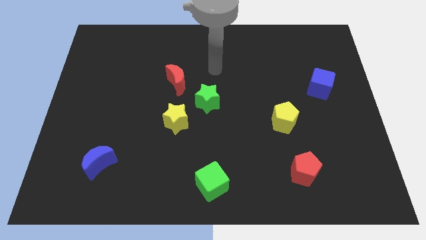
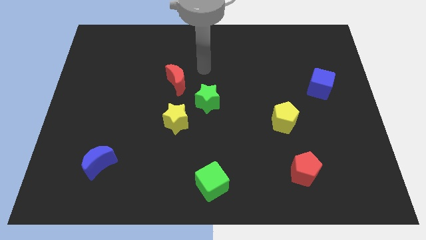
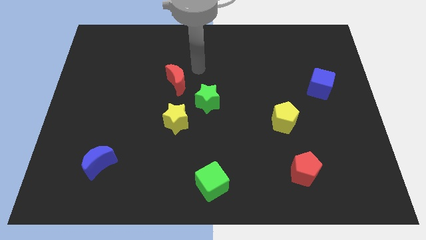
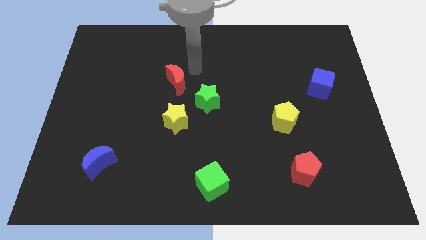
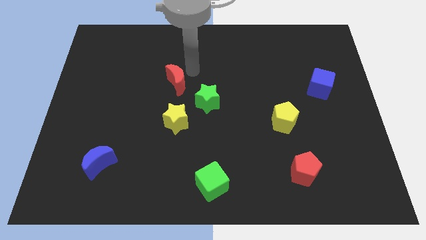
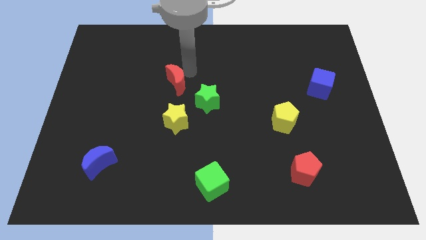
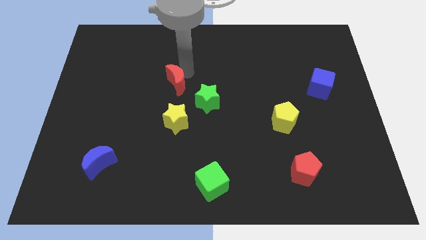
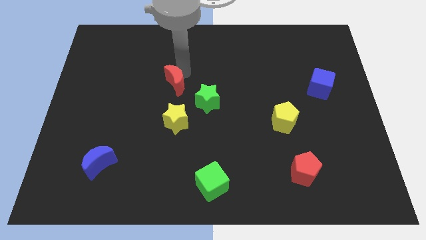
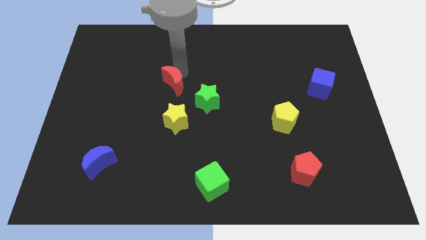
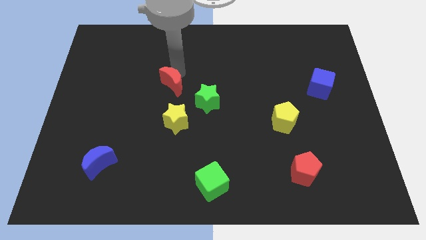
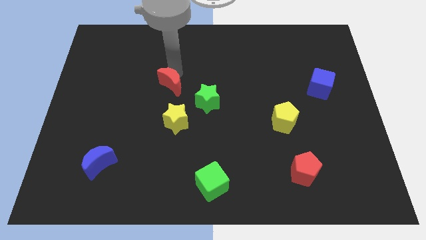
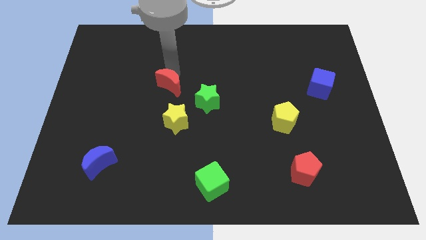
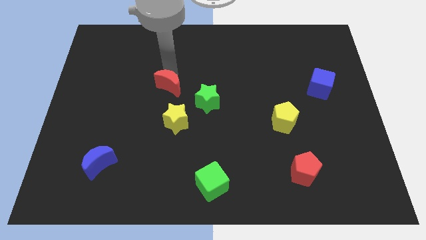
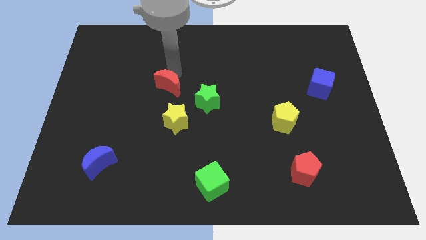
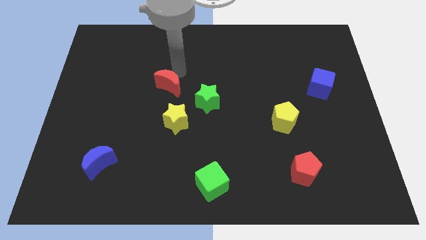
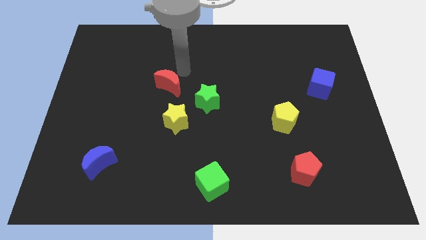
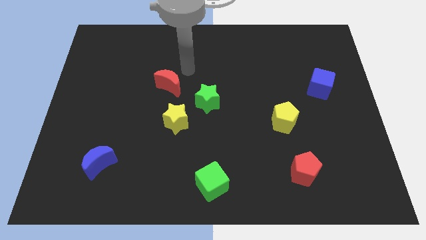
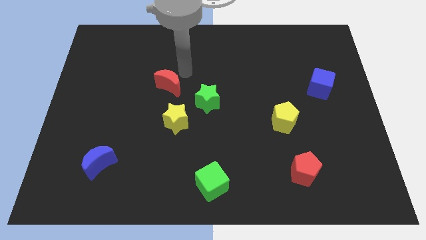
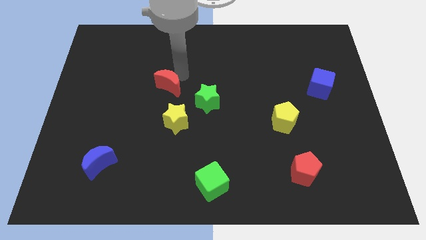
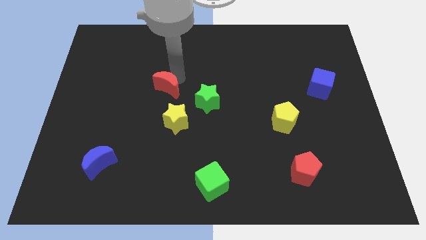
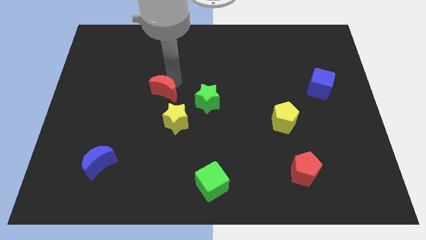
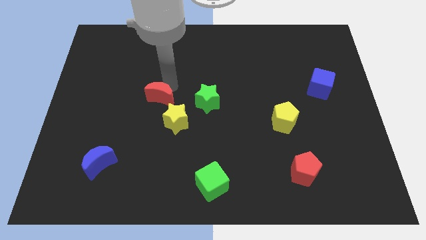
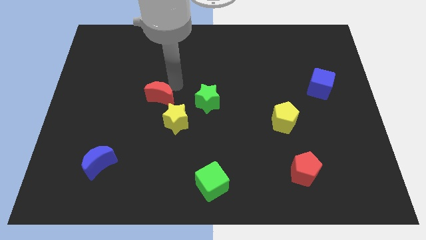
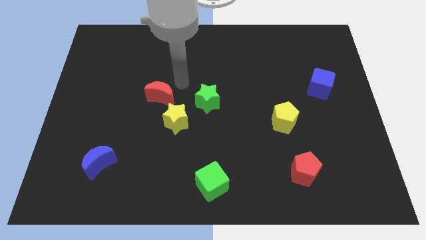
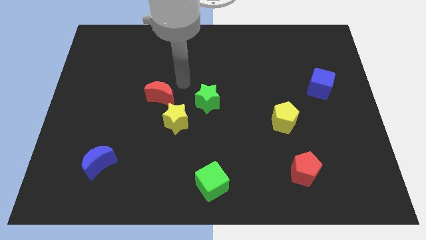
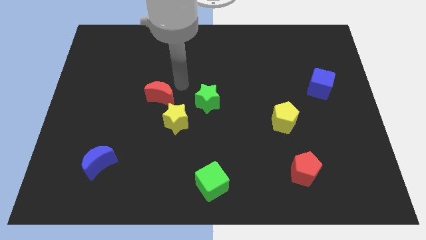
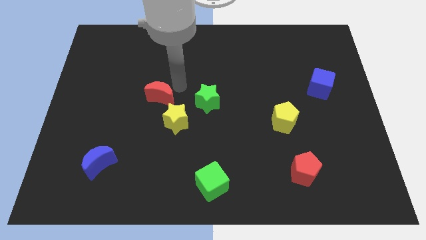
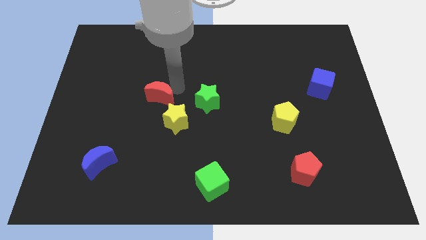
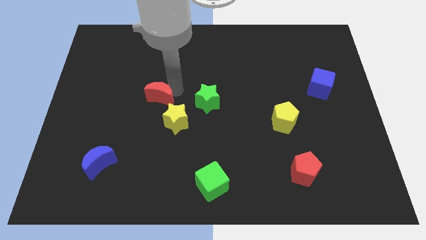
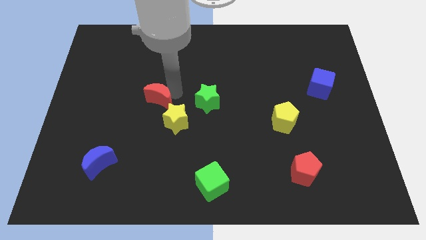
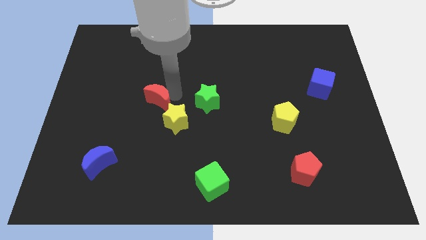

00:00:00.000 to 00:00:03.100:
slightly move the red moon down and left diagonally

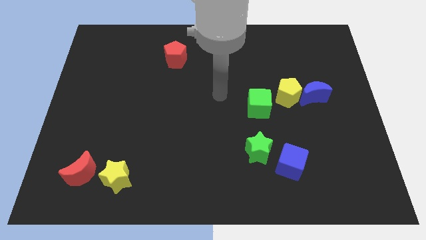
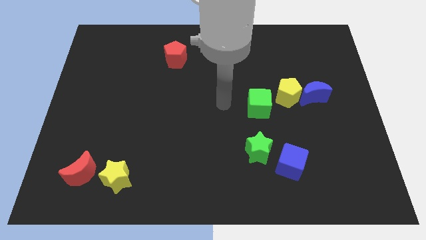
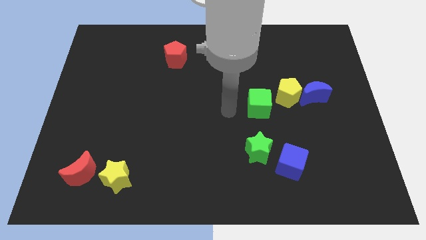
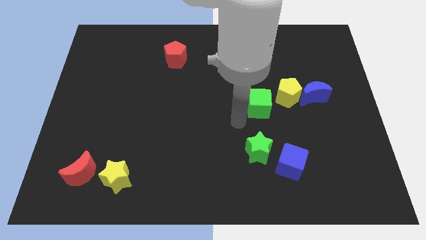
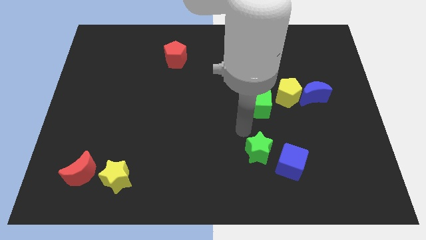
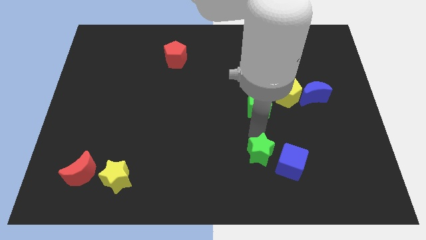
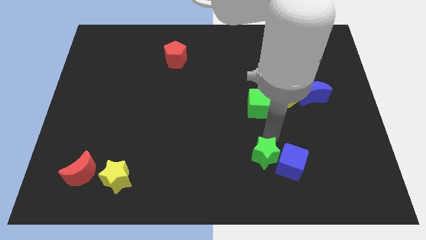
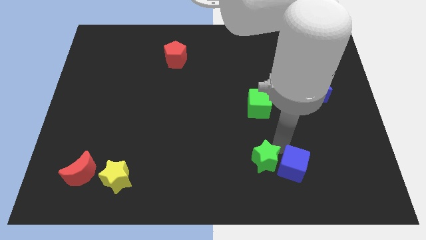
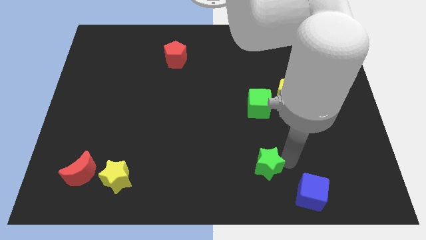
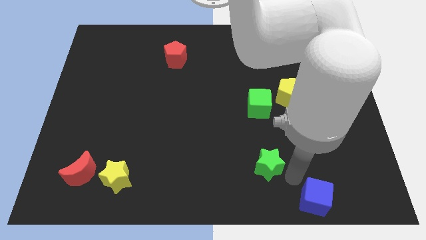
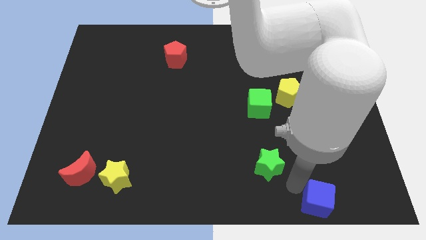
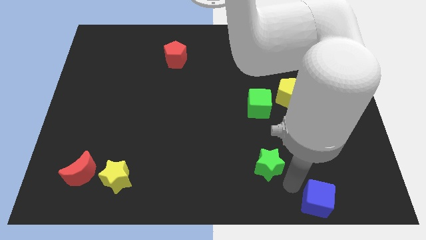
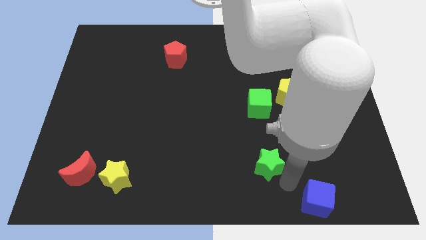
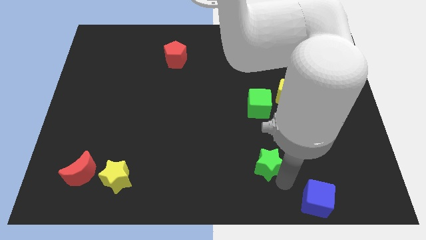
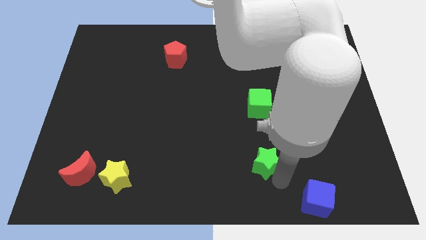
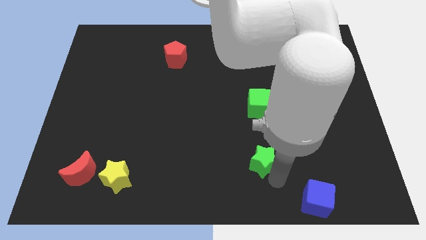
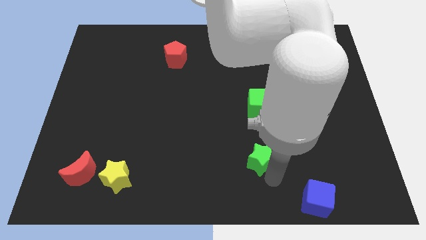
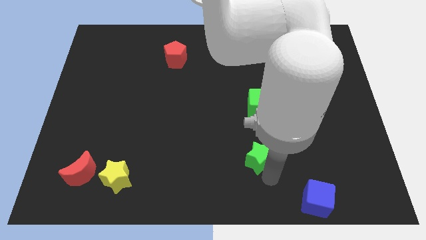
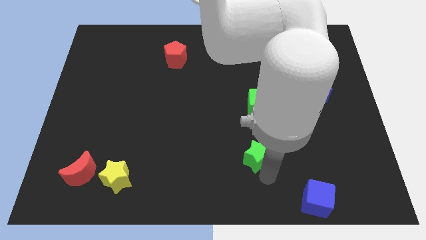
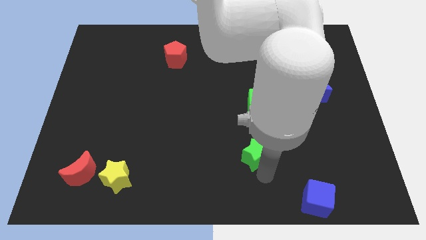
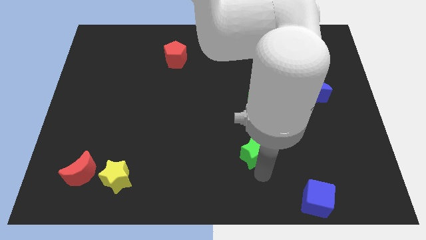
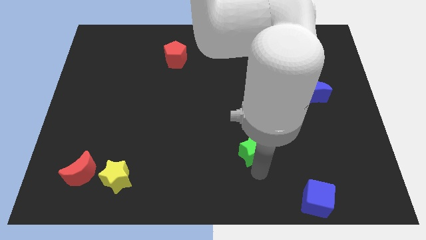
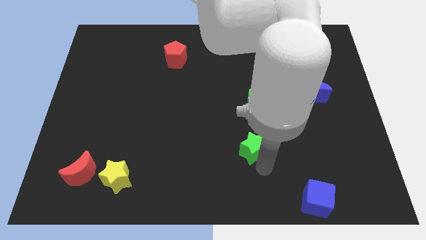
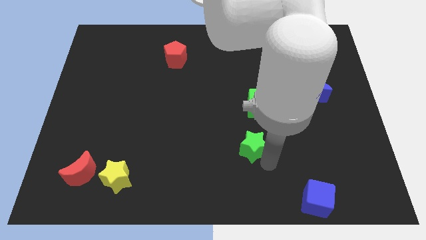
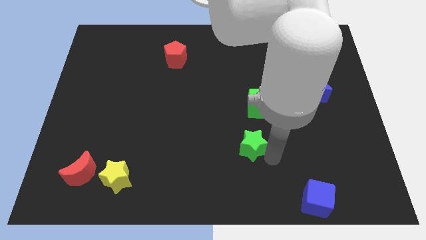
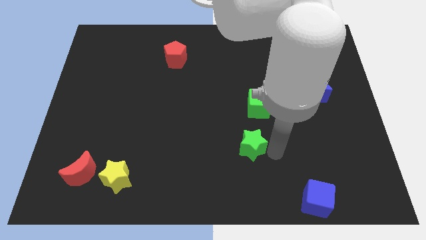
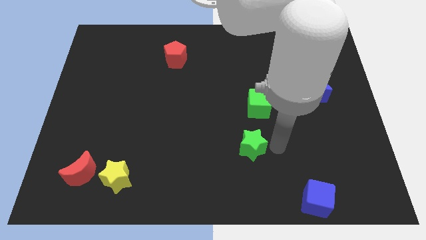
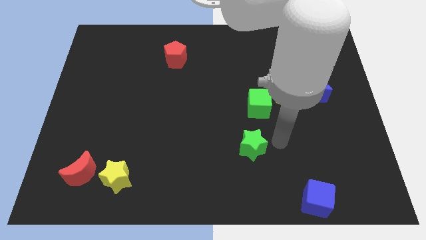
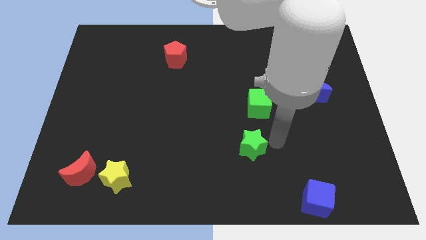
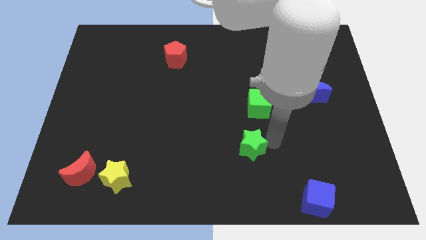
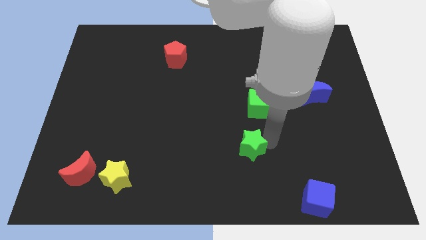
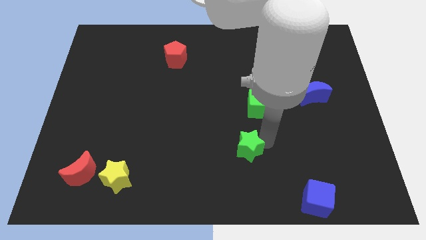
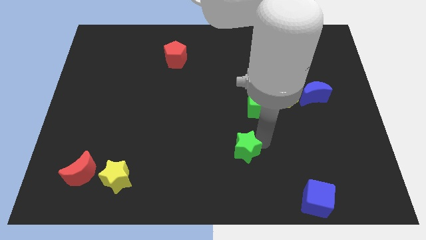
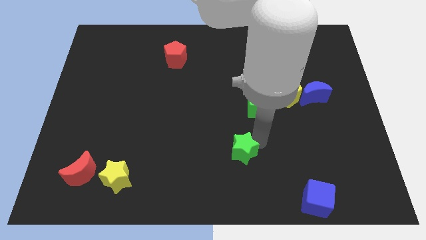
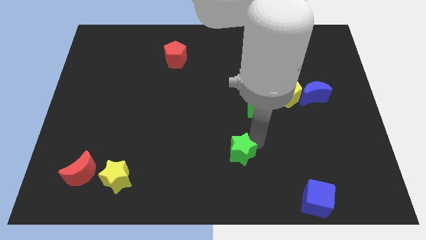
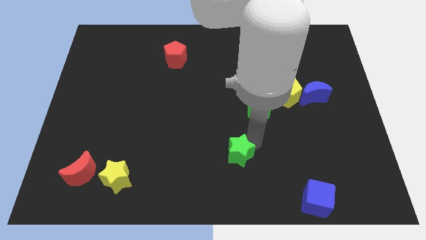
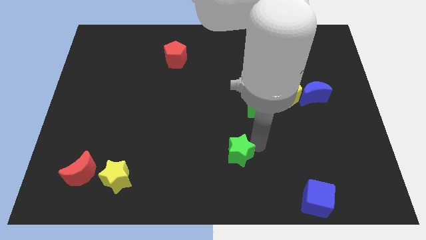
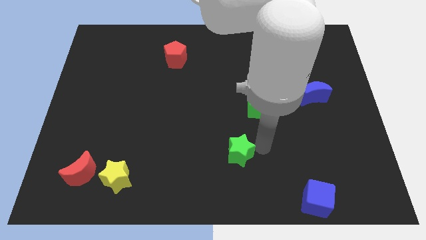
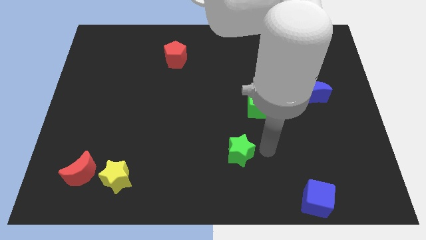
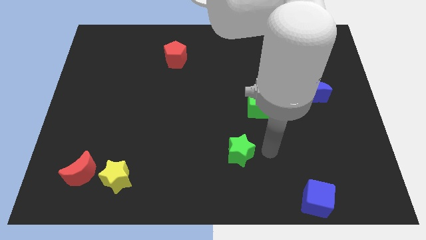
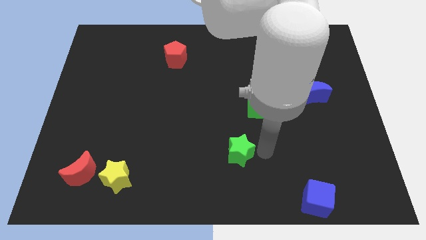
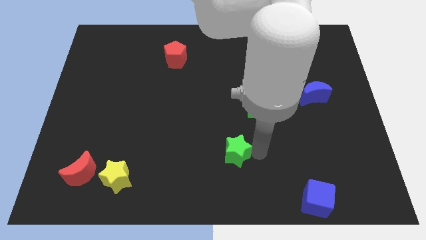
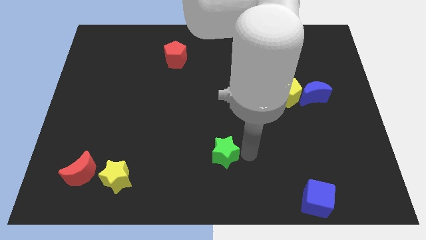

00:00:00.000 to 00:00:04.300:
slightly move the green star left

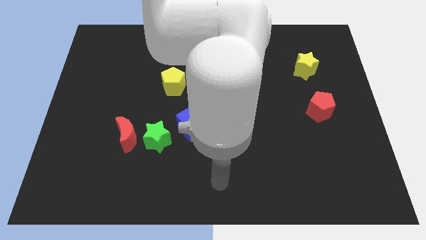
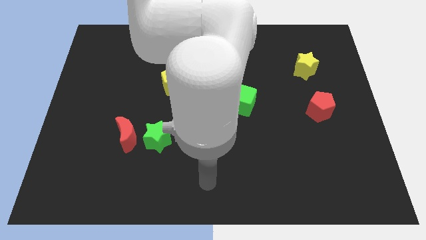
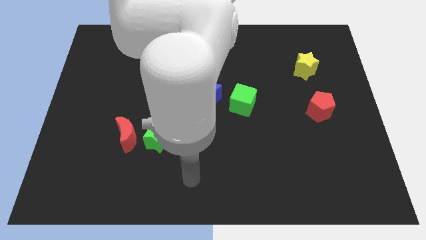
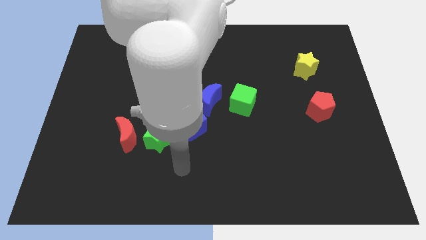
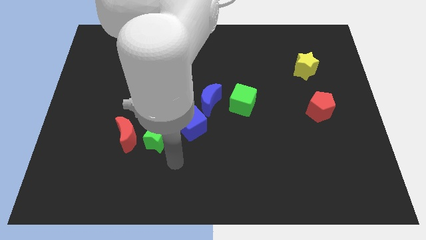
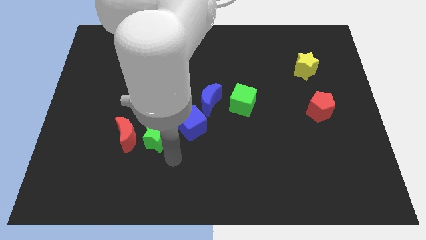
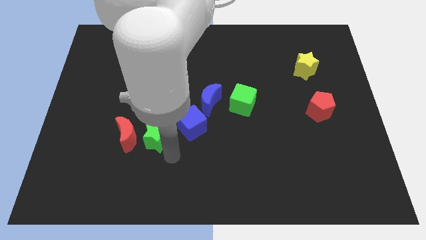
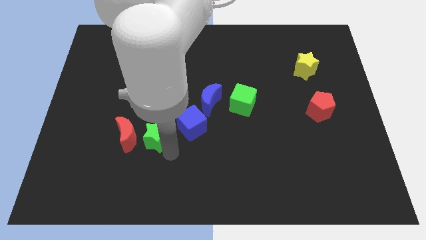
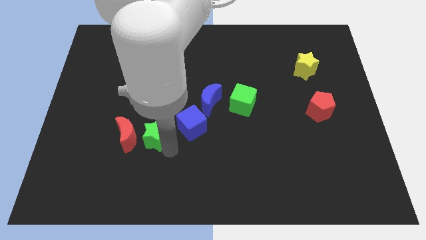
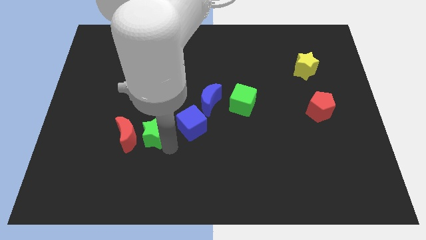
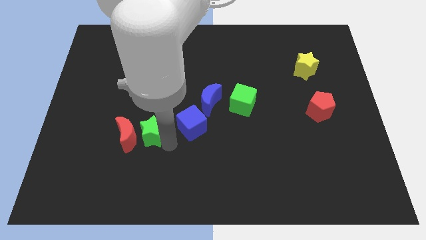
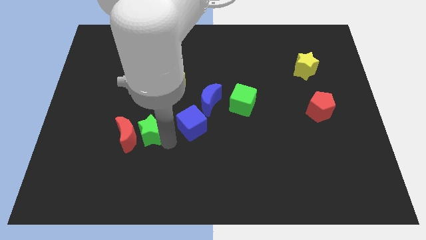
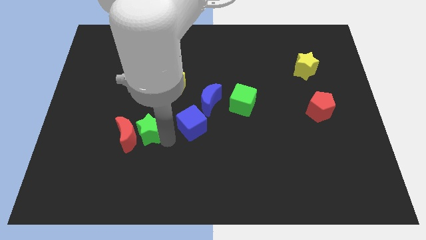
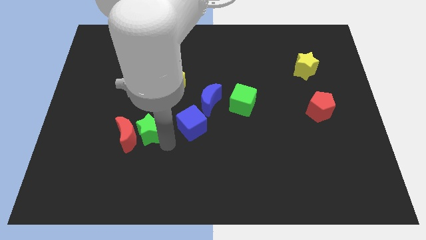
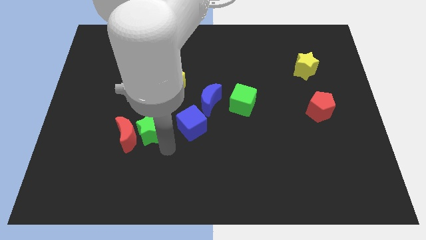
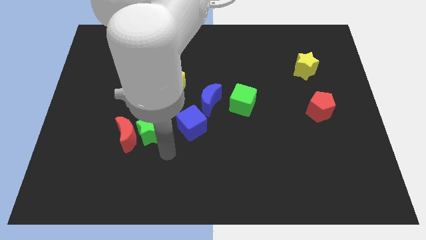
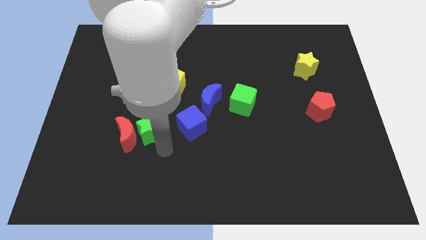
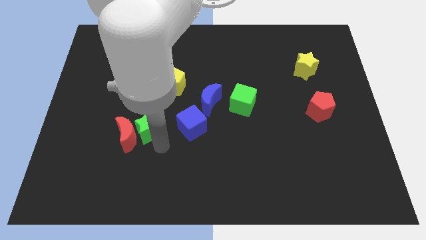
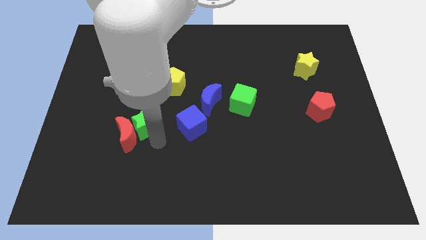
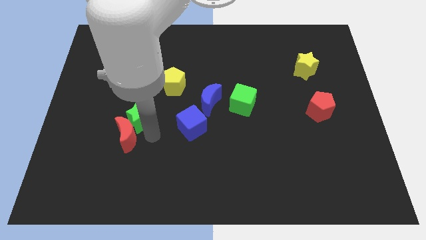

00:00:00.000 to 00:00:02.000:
push the green star slightly upwards and then to the left
